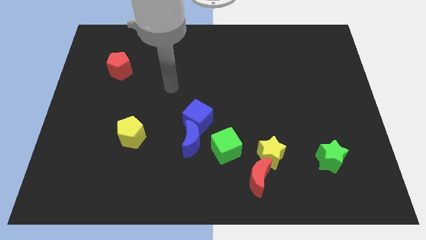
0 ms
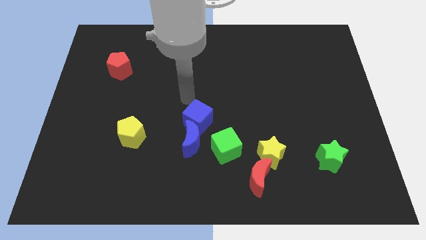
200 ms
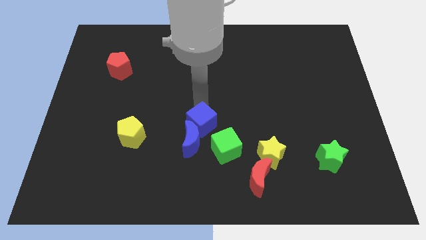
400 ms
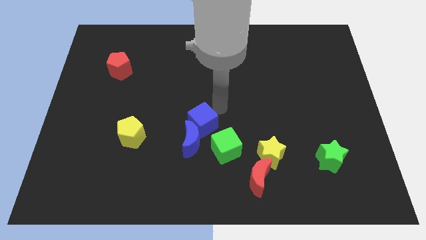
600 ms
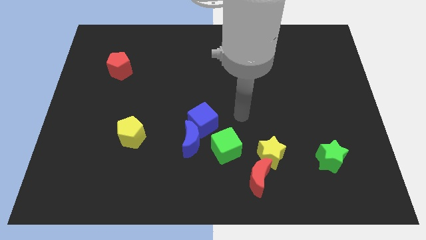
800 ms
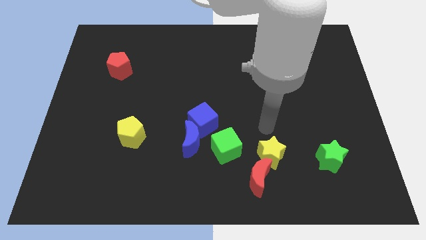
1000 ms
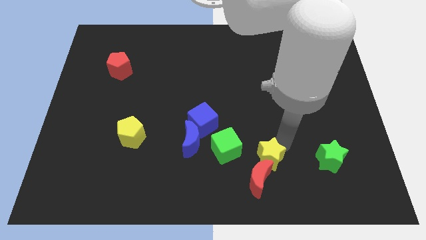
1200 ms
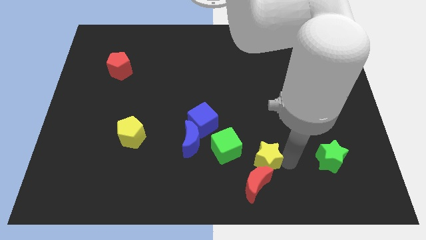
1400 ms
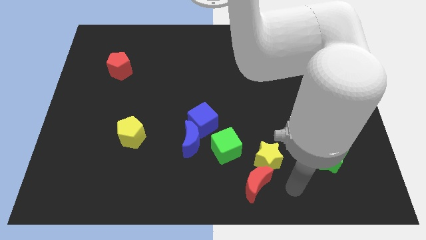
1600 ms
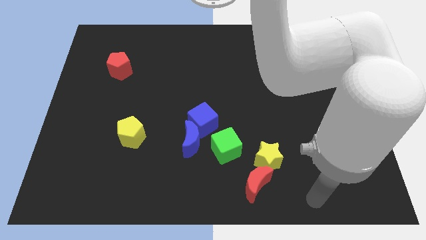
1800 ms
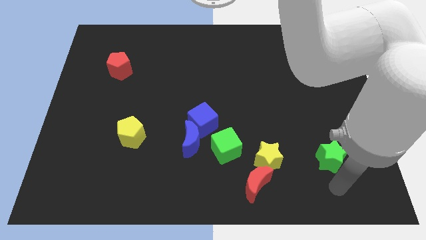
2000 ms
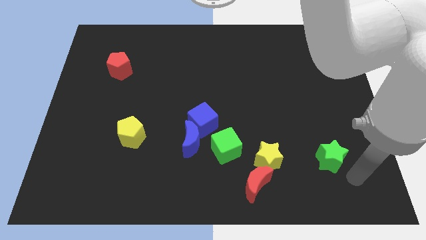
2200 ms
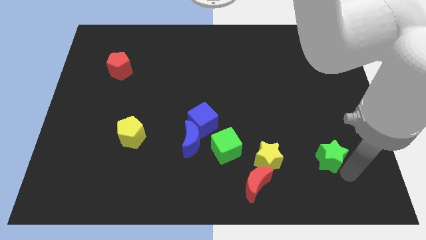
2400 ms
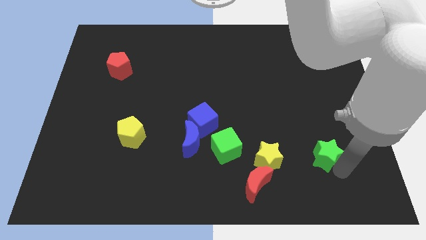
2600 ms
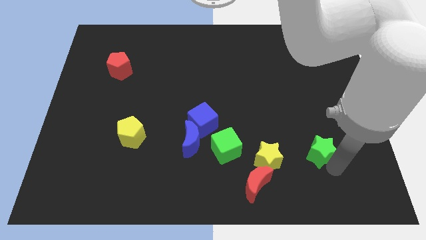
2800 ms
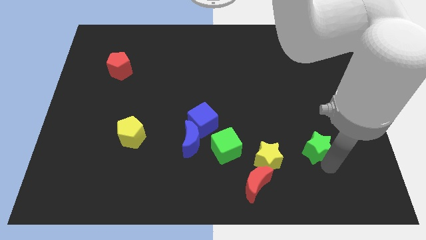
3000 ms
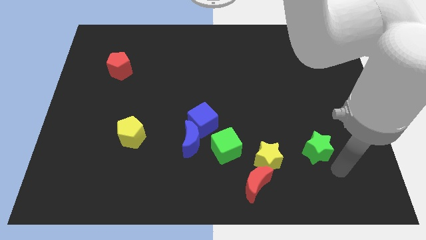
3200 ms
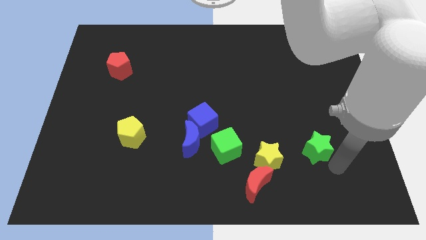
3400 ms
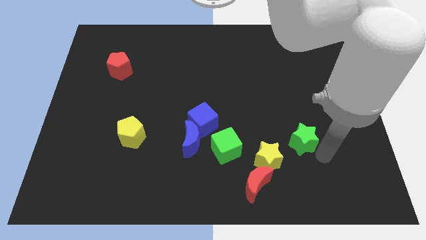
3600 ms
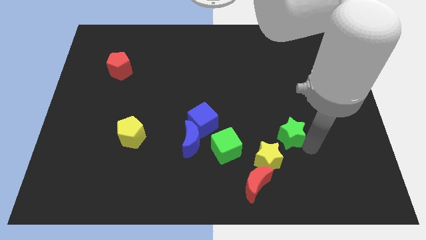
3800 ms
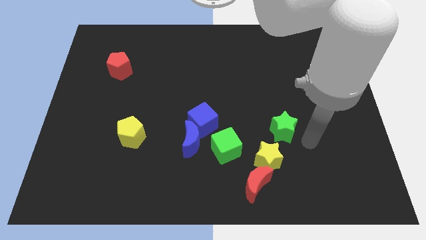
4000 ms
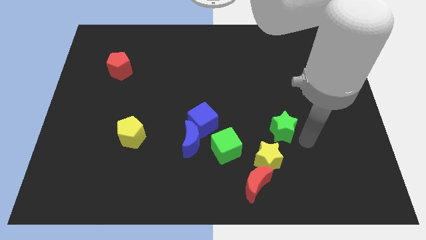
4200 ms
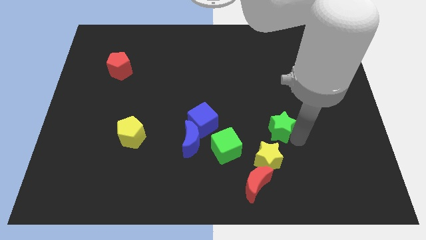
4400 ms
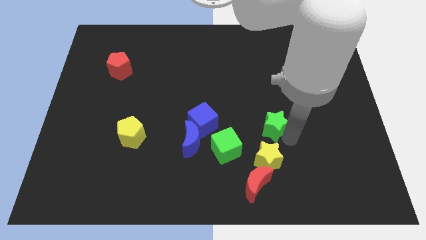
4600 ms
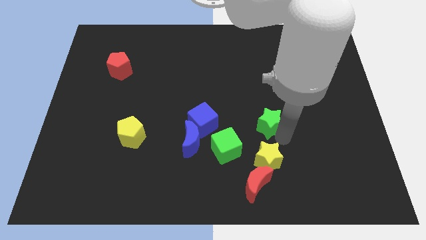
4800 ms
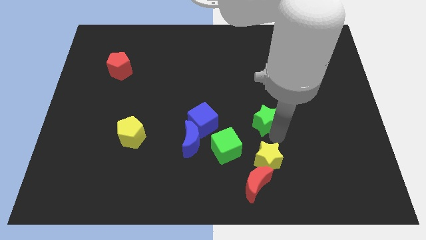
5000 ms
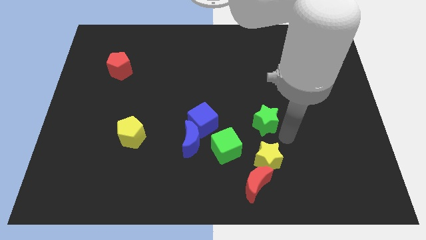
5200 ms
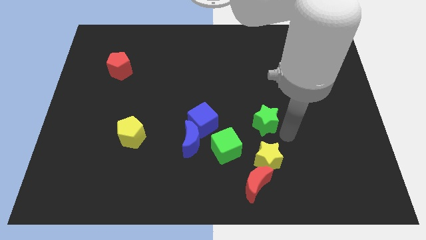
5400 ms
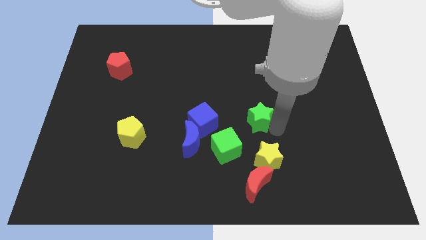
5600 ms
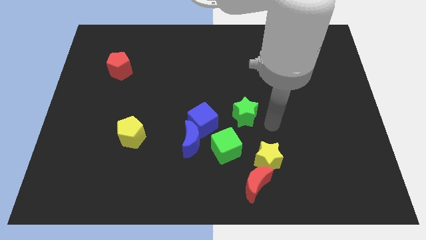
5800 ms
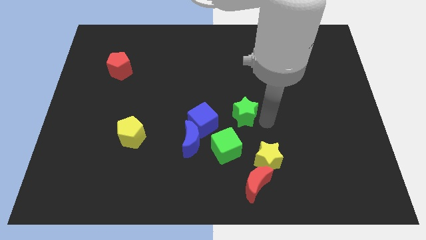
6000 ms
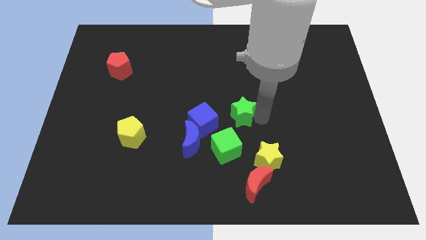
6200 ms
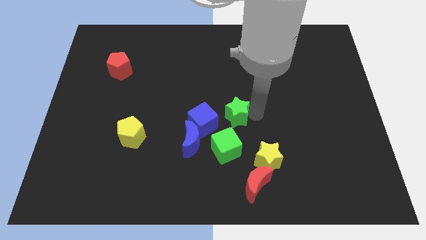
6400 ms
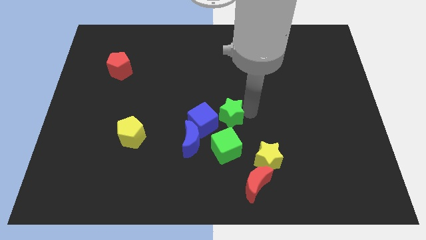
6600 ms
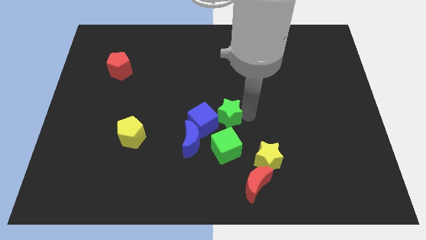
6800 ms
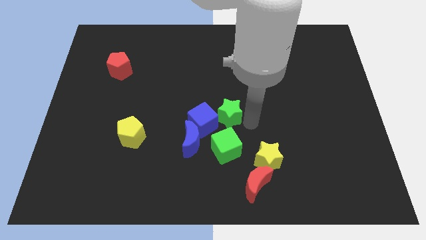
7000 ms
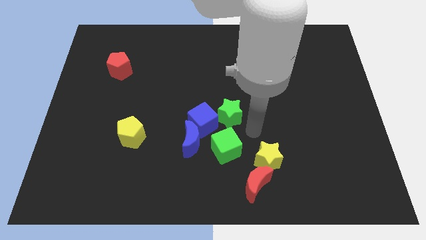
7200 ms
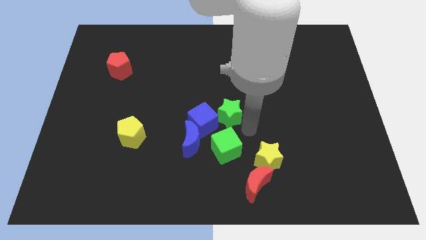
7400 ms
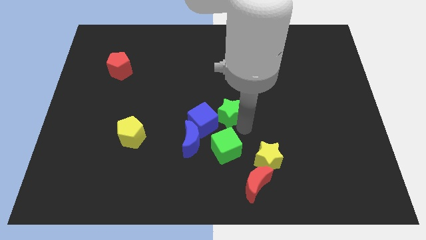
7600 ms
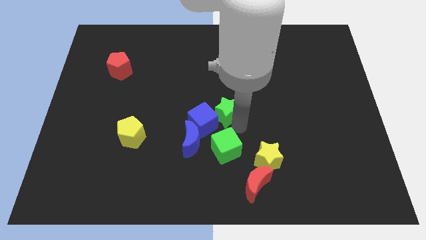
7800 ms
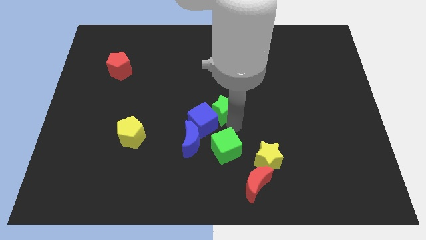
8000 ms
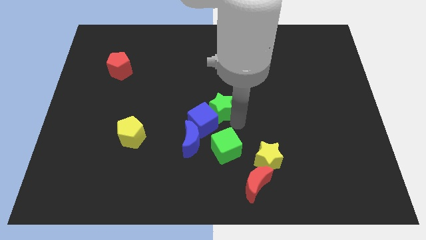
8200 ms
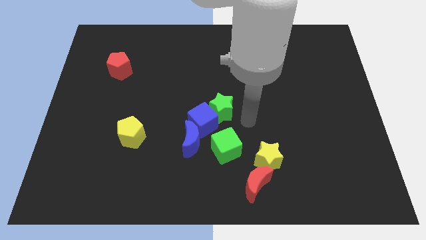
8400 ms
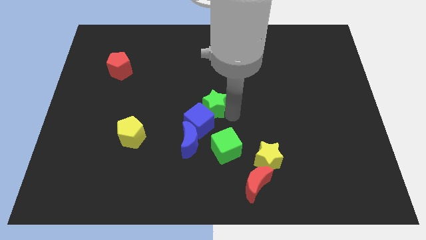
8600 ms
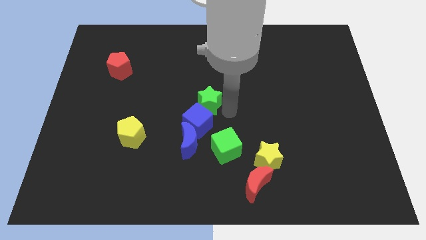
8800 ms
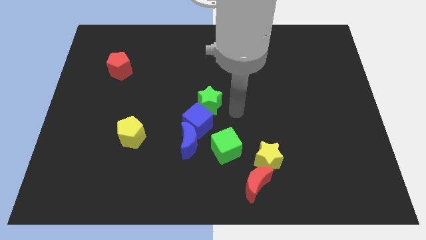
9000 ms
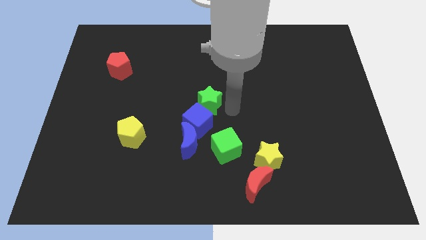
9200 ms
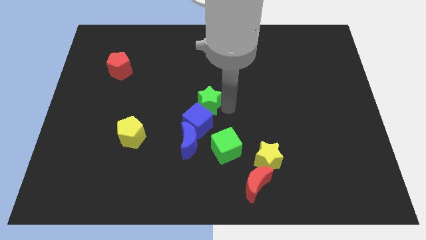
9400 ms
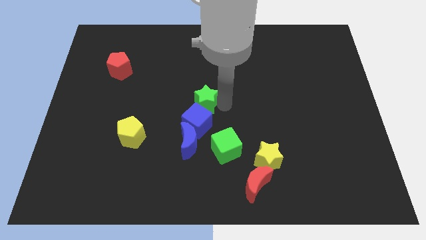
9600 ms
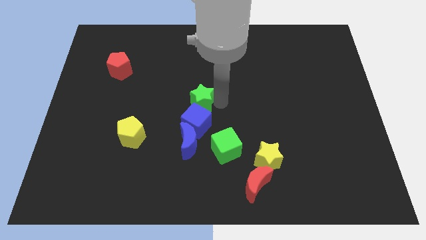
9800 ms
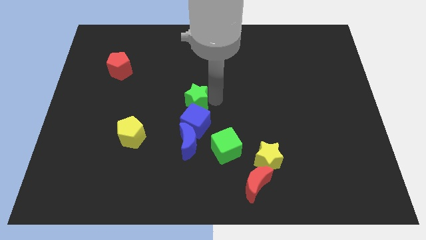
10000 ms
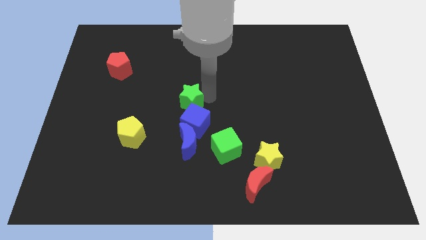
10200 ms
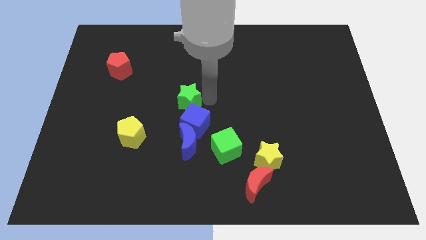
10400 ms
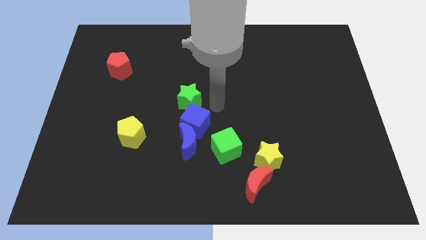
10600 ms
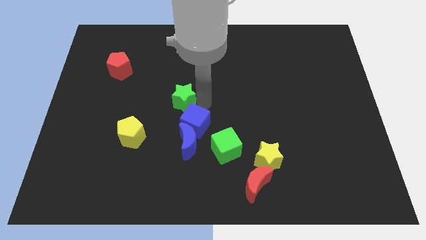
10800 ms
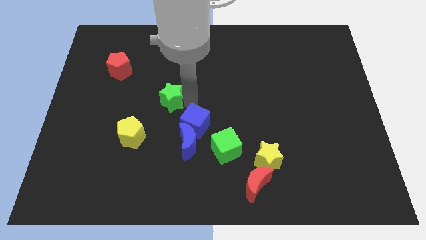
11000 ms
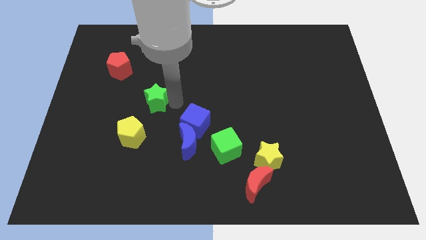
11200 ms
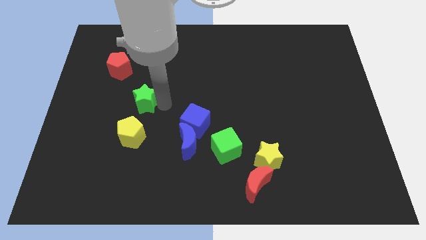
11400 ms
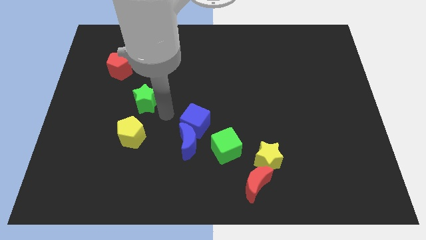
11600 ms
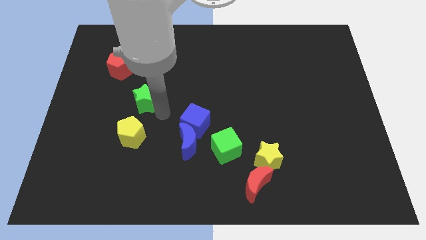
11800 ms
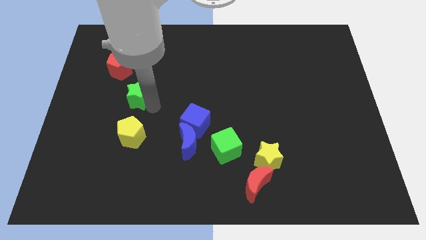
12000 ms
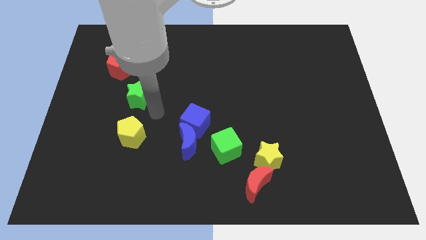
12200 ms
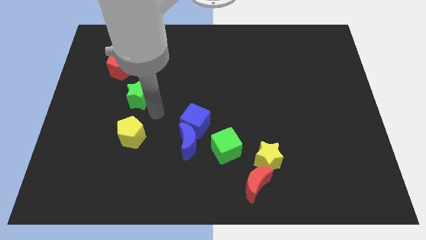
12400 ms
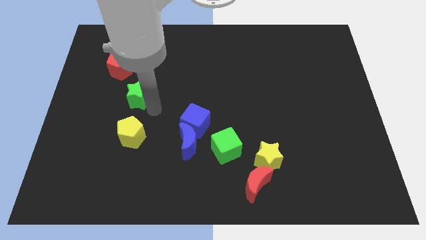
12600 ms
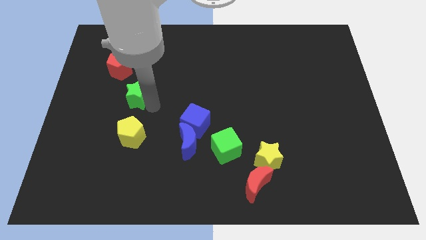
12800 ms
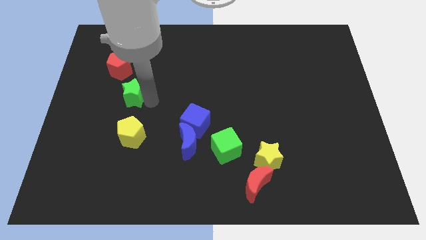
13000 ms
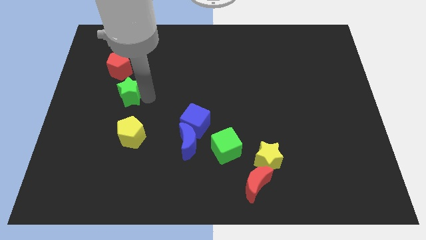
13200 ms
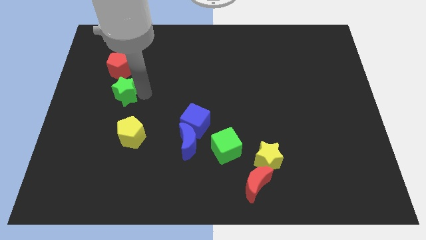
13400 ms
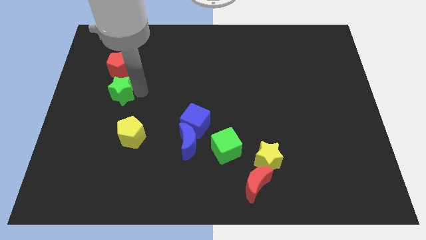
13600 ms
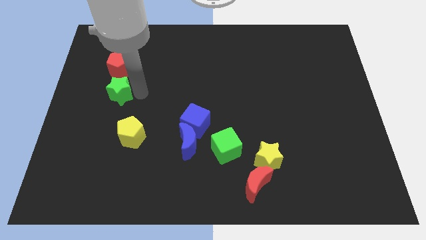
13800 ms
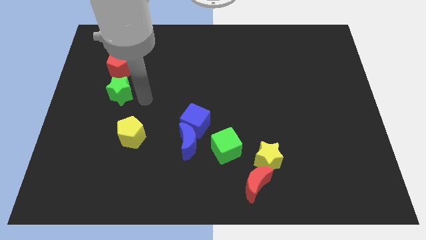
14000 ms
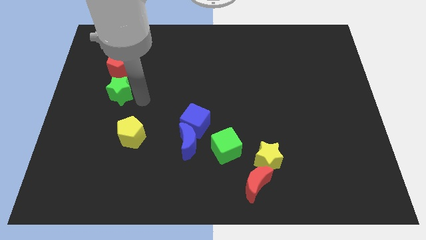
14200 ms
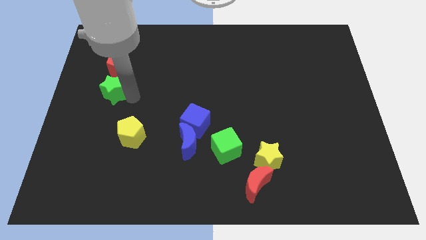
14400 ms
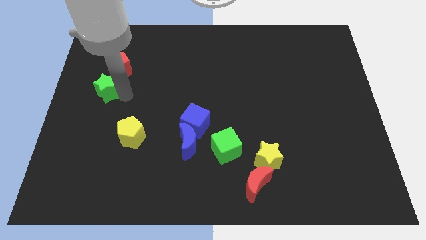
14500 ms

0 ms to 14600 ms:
push the green star diagonally down and to the left of the red pentagon
